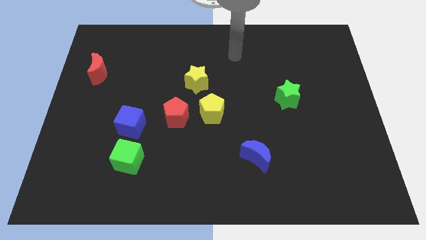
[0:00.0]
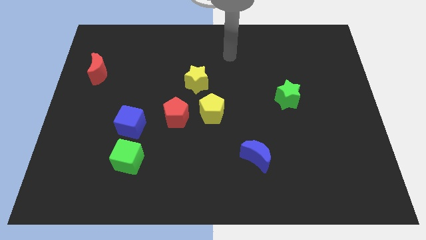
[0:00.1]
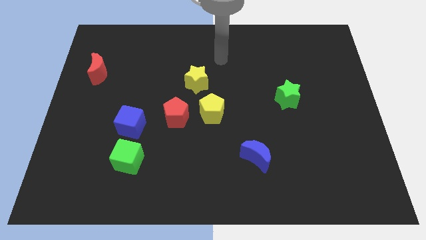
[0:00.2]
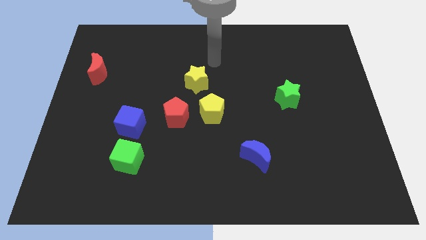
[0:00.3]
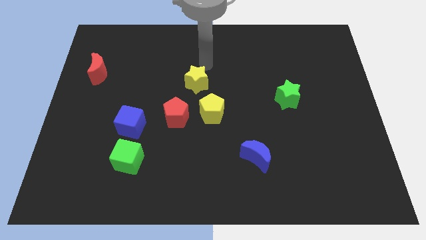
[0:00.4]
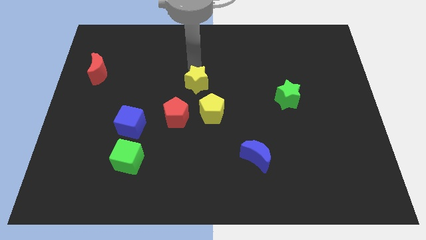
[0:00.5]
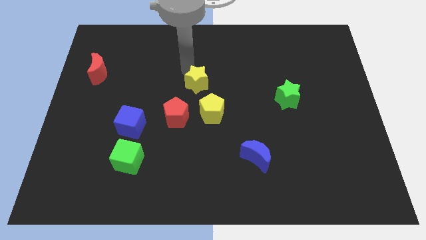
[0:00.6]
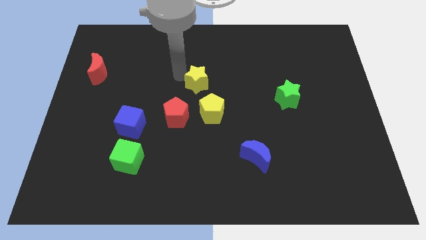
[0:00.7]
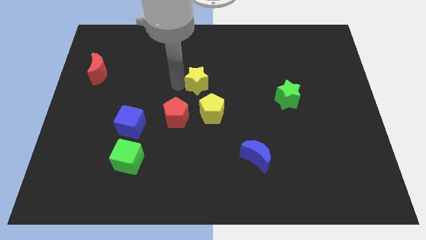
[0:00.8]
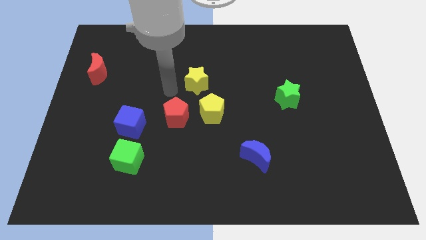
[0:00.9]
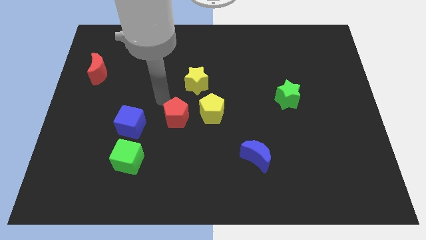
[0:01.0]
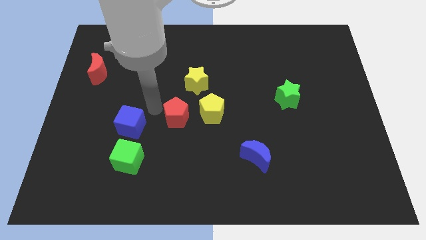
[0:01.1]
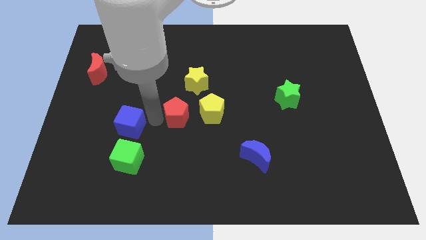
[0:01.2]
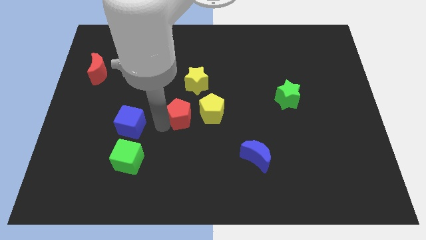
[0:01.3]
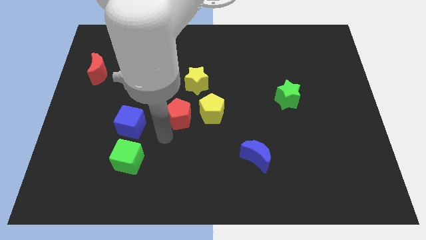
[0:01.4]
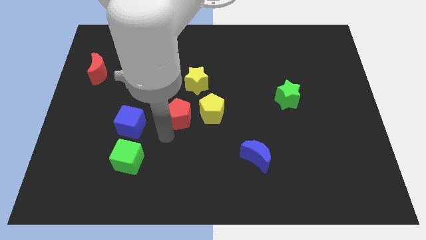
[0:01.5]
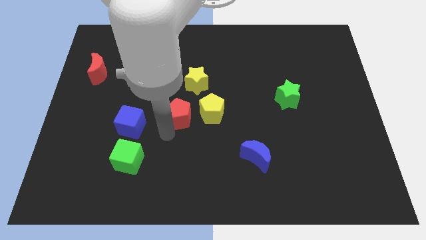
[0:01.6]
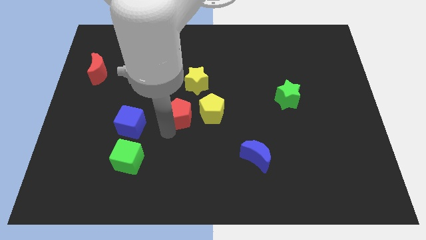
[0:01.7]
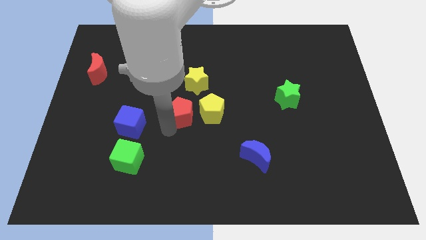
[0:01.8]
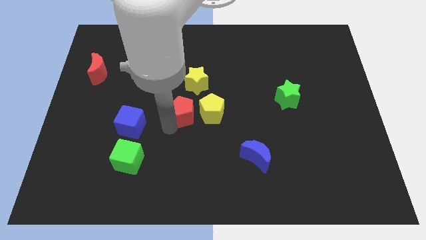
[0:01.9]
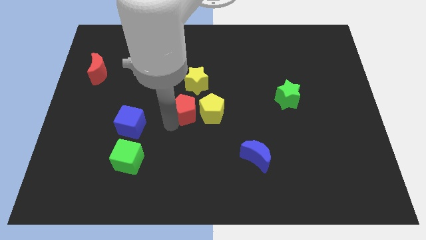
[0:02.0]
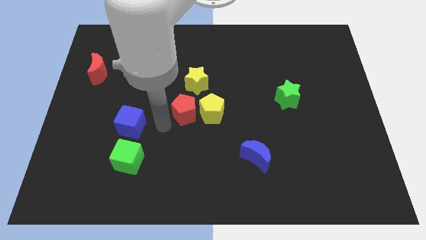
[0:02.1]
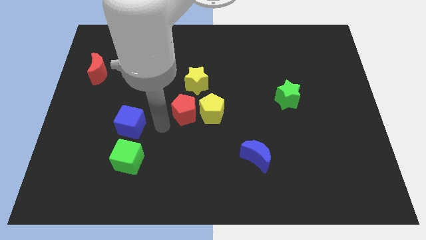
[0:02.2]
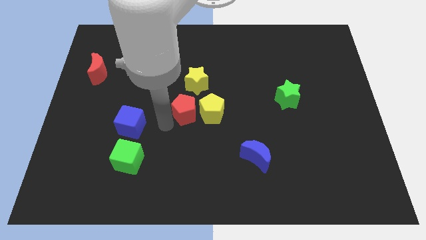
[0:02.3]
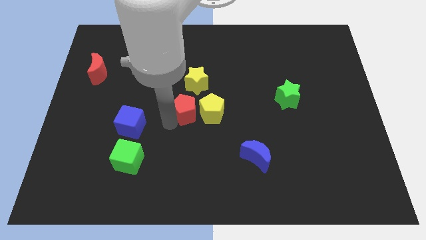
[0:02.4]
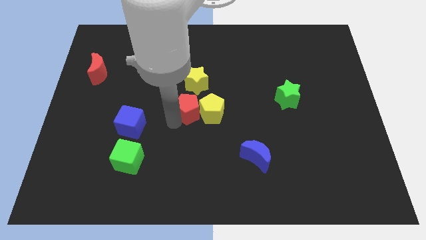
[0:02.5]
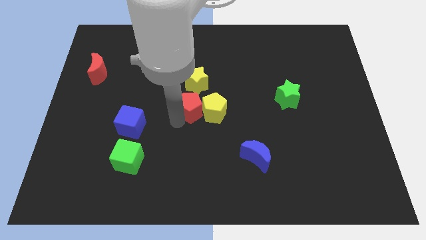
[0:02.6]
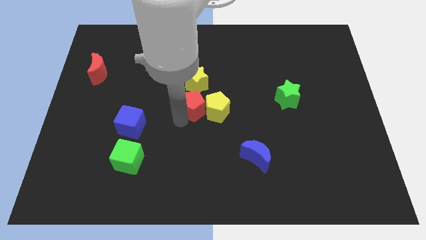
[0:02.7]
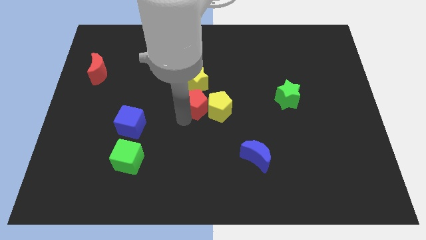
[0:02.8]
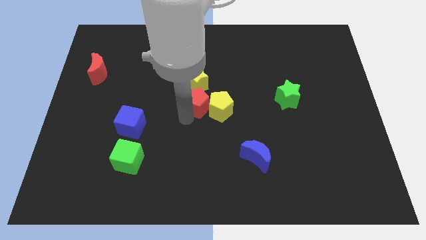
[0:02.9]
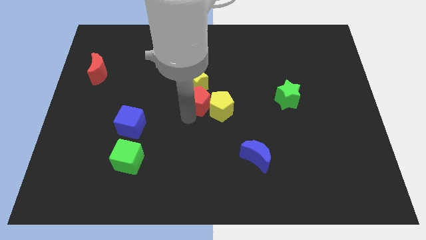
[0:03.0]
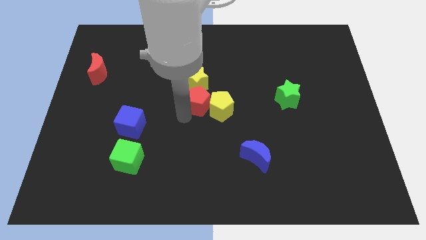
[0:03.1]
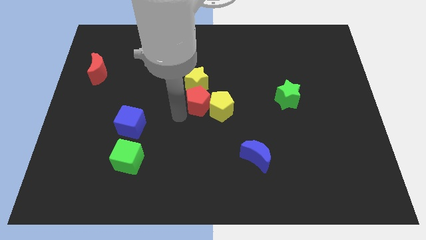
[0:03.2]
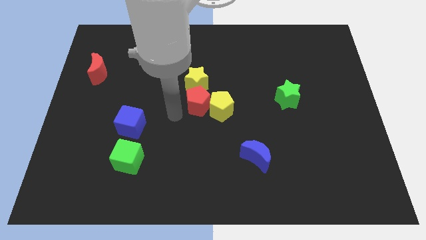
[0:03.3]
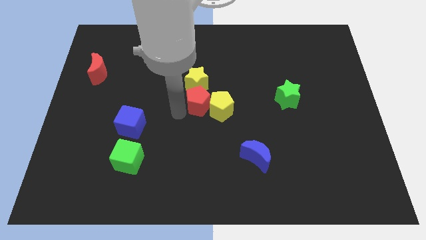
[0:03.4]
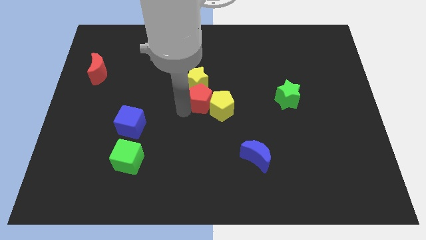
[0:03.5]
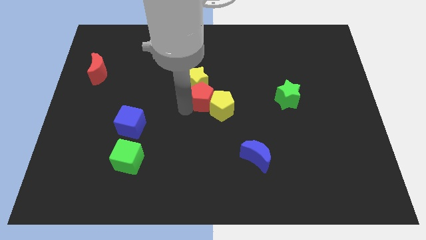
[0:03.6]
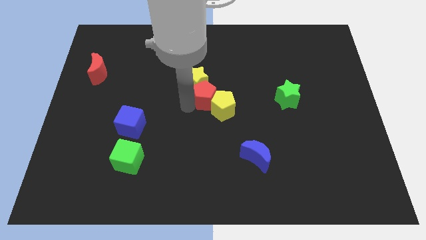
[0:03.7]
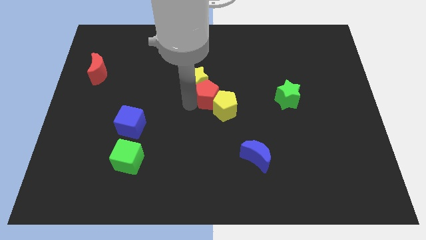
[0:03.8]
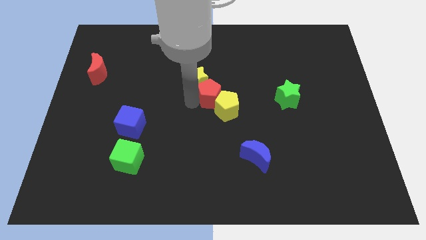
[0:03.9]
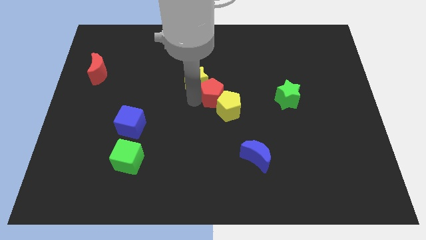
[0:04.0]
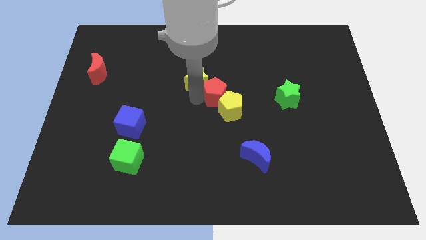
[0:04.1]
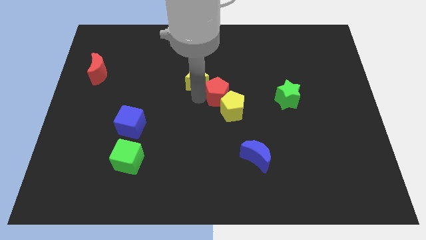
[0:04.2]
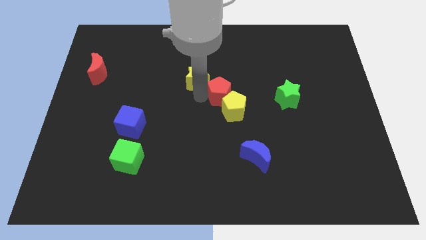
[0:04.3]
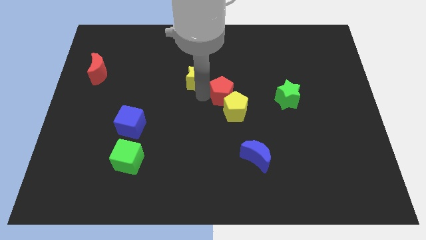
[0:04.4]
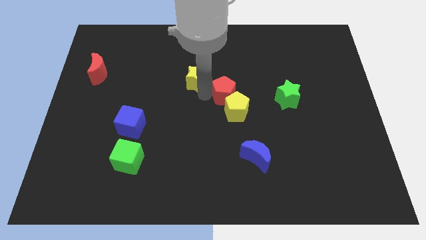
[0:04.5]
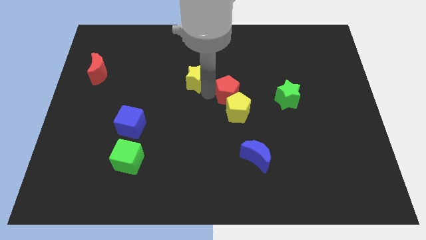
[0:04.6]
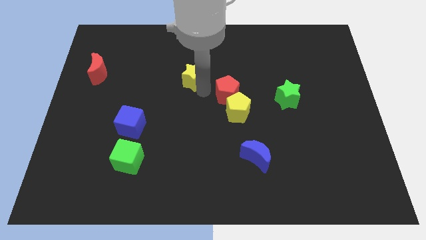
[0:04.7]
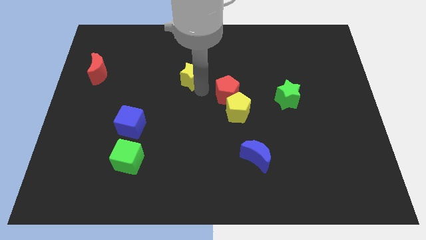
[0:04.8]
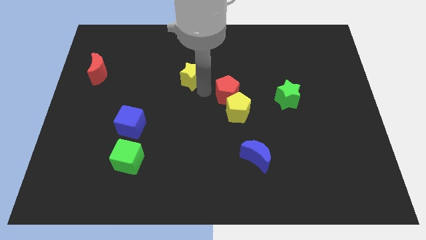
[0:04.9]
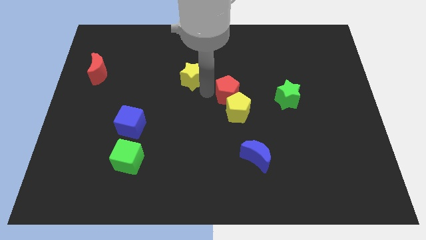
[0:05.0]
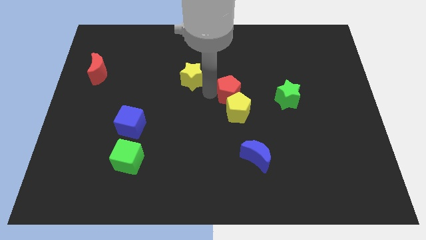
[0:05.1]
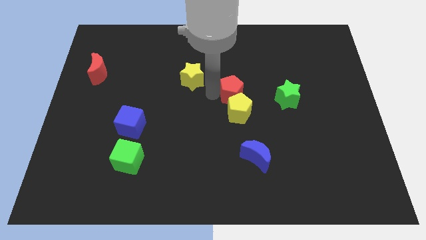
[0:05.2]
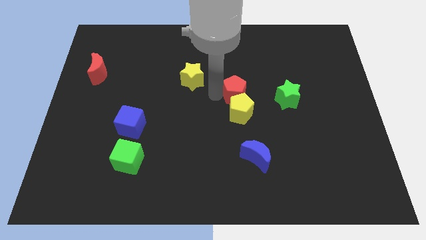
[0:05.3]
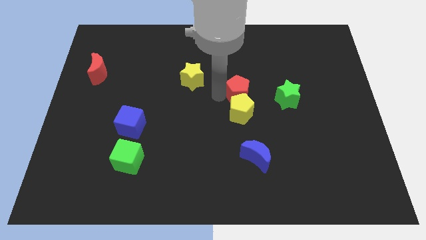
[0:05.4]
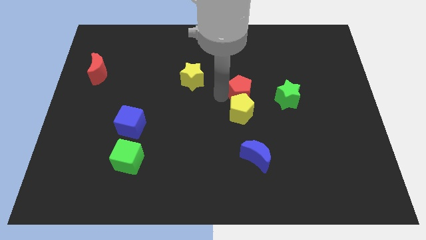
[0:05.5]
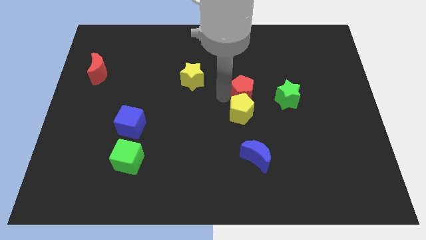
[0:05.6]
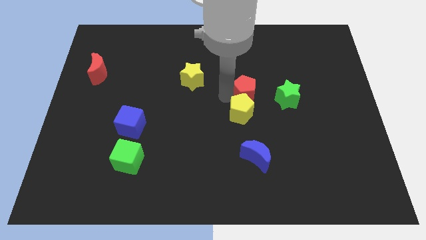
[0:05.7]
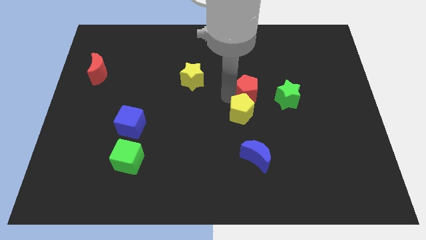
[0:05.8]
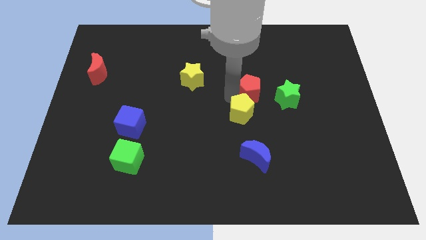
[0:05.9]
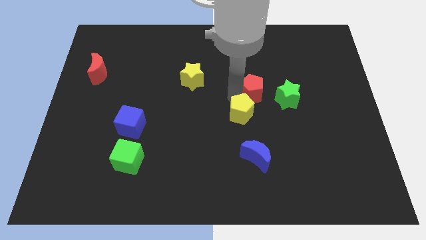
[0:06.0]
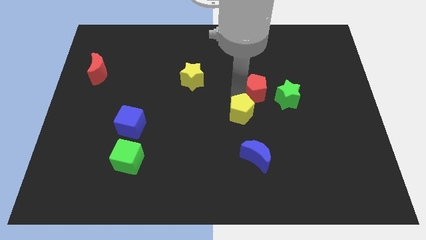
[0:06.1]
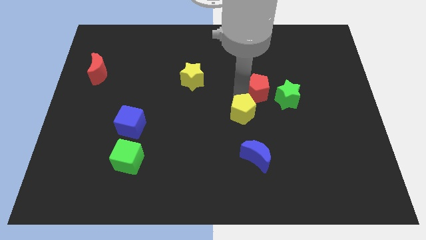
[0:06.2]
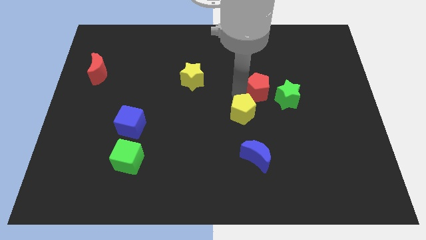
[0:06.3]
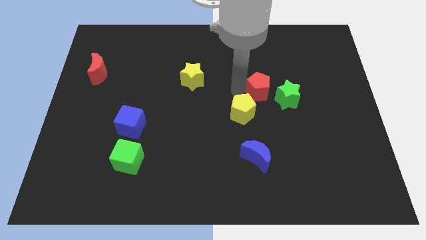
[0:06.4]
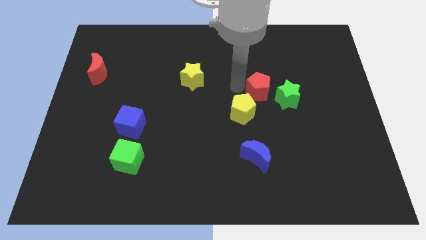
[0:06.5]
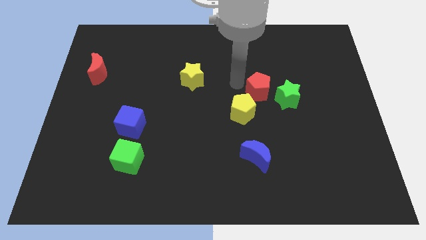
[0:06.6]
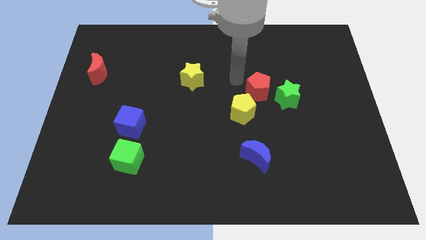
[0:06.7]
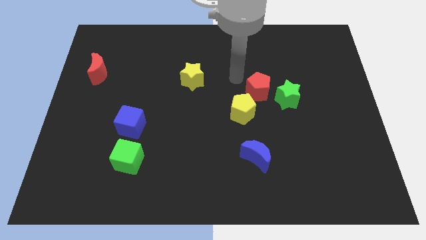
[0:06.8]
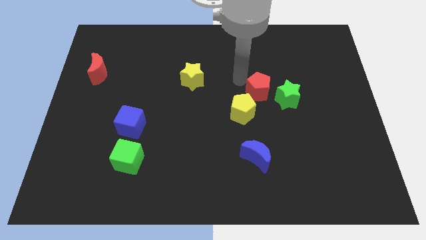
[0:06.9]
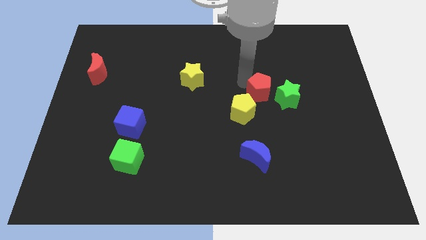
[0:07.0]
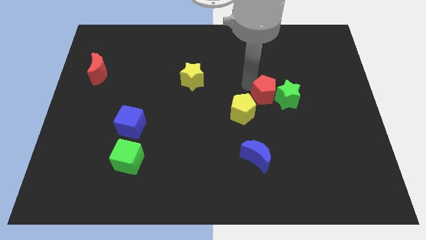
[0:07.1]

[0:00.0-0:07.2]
push the red pentagon to the green star
